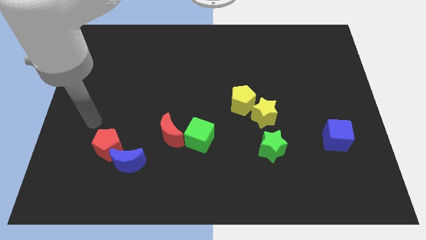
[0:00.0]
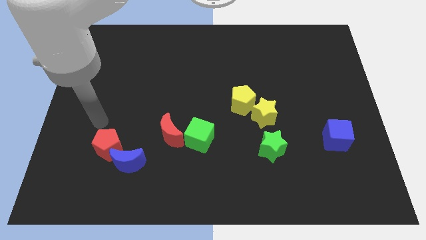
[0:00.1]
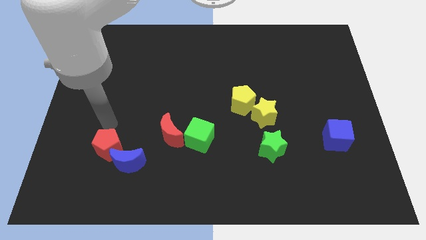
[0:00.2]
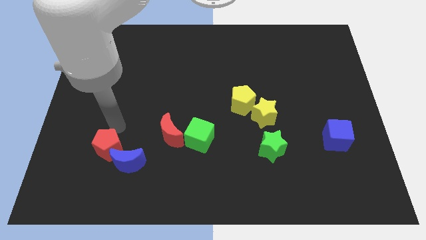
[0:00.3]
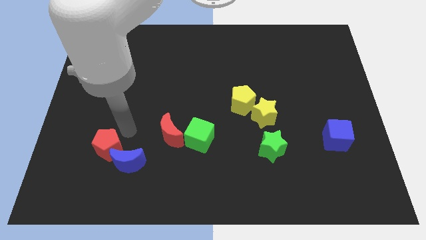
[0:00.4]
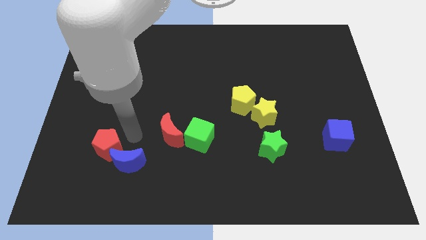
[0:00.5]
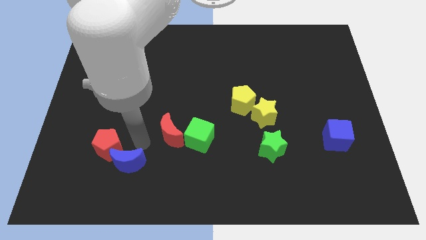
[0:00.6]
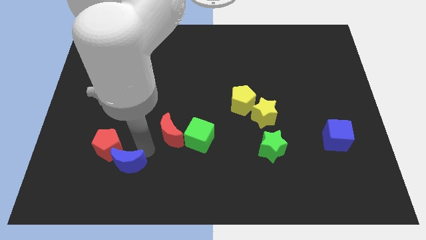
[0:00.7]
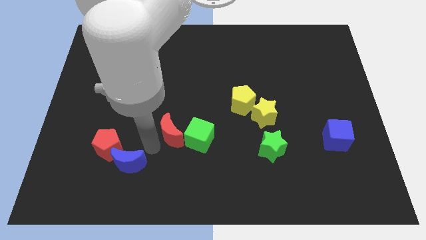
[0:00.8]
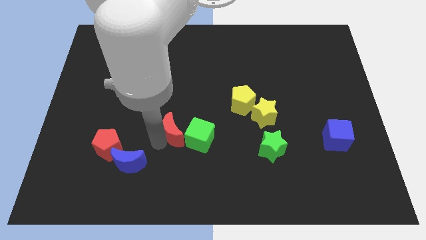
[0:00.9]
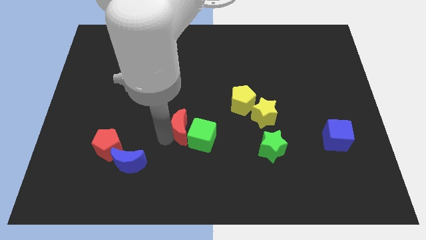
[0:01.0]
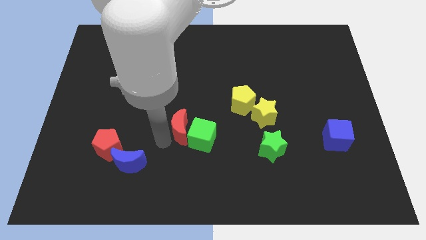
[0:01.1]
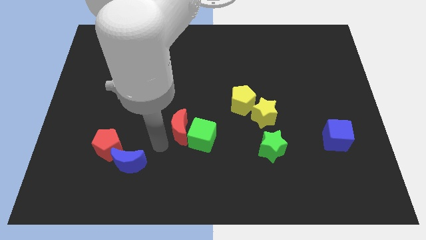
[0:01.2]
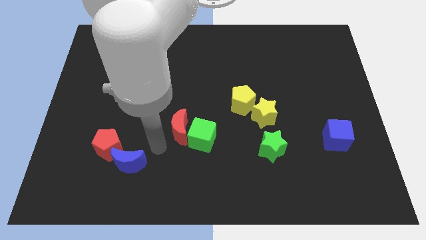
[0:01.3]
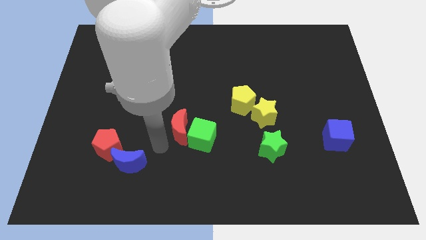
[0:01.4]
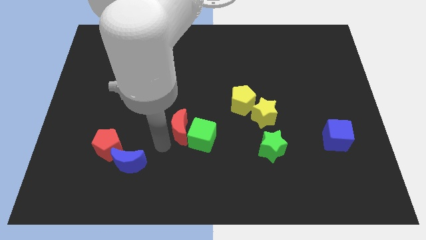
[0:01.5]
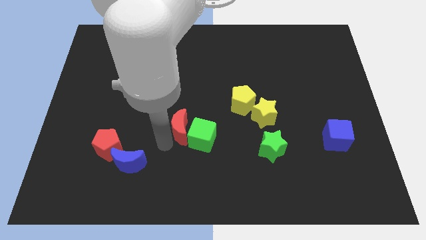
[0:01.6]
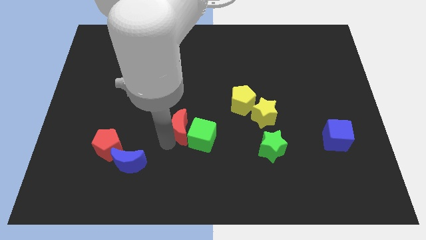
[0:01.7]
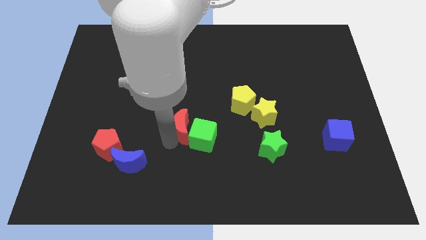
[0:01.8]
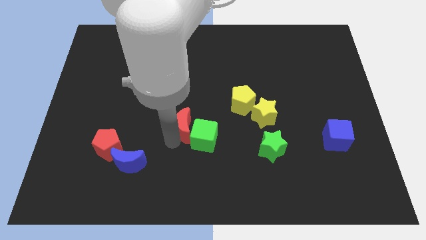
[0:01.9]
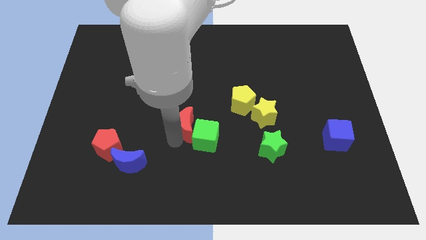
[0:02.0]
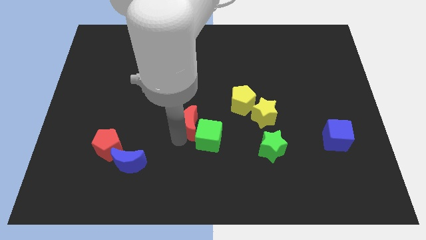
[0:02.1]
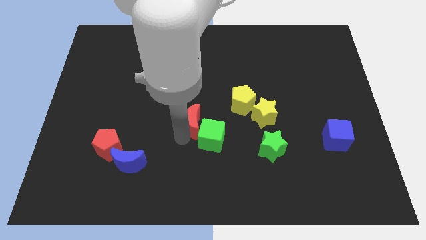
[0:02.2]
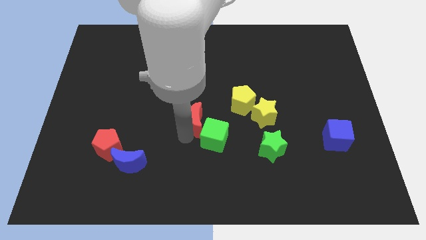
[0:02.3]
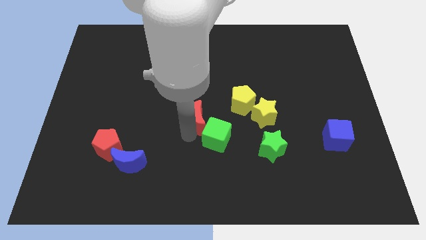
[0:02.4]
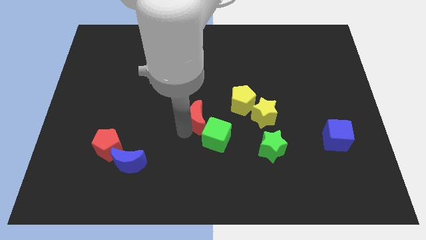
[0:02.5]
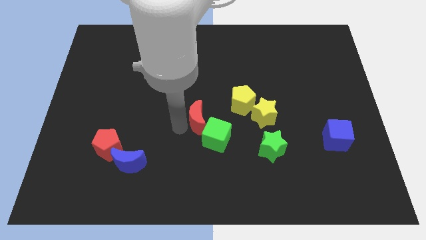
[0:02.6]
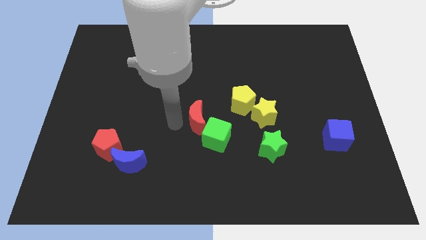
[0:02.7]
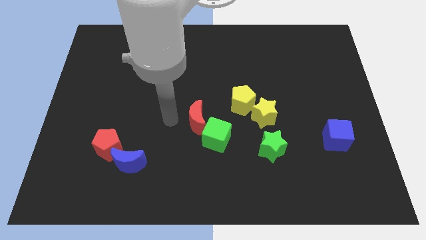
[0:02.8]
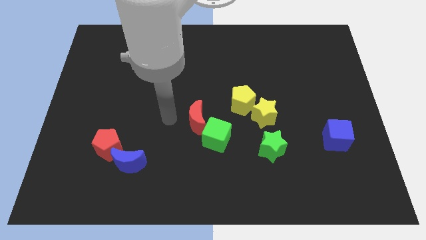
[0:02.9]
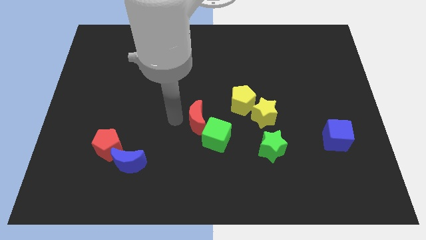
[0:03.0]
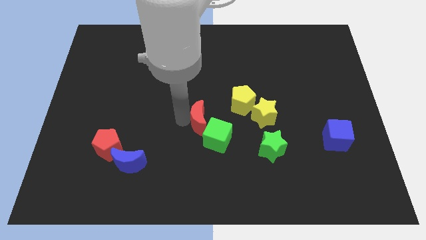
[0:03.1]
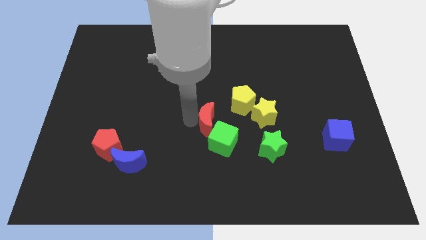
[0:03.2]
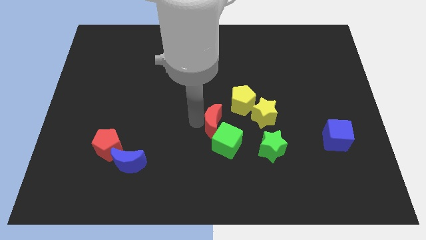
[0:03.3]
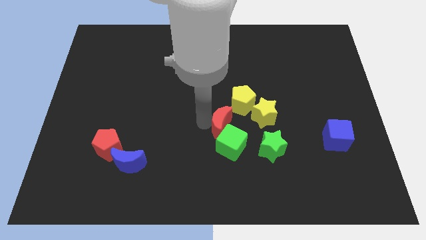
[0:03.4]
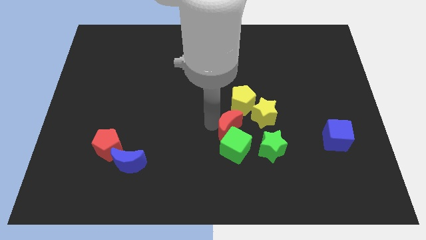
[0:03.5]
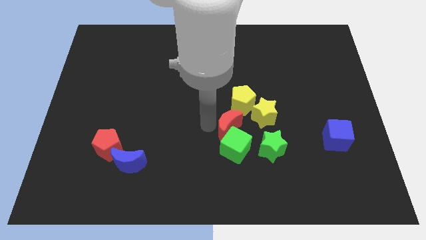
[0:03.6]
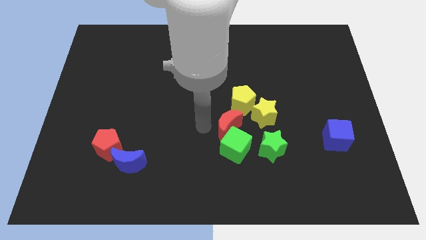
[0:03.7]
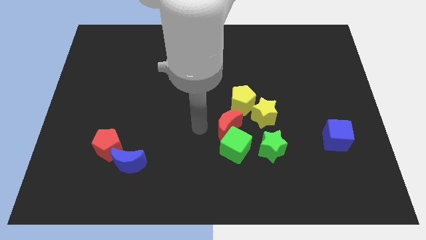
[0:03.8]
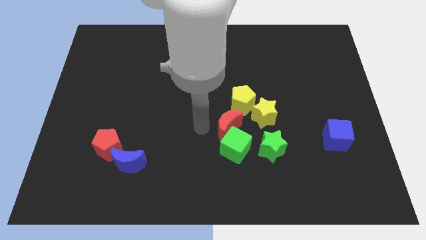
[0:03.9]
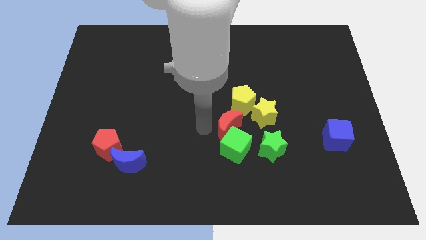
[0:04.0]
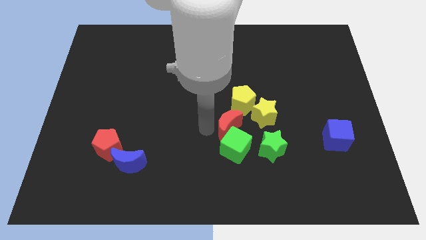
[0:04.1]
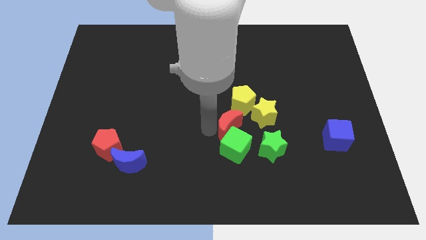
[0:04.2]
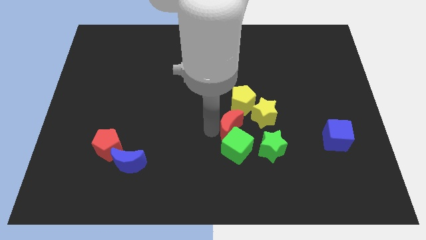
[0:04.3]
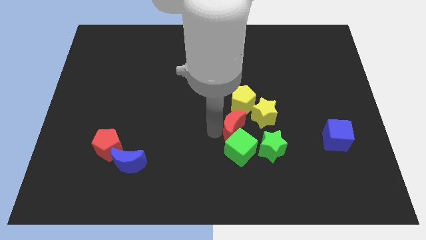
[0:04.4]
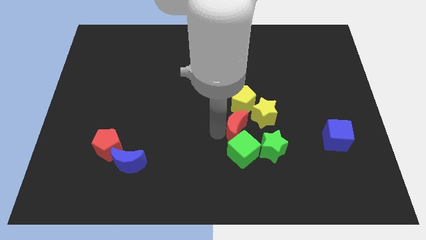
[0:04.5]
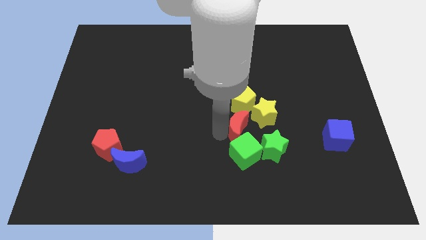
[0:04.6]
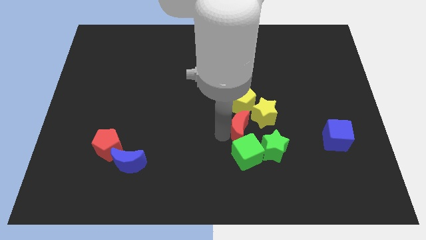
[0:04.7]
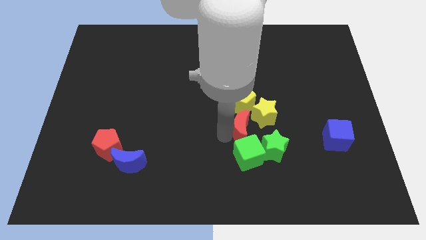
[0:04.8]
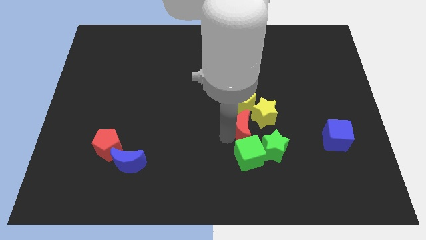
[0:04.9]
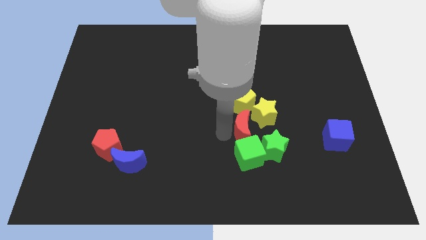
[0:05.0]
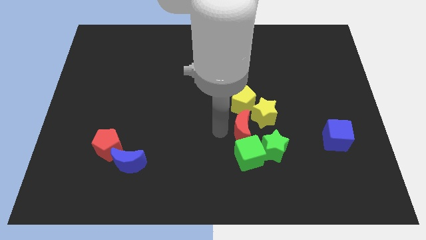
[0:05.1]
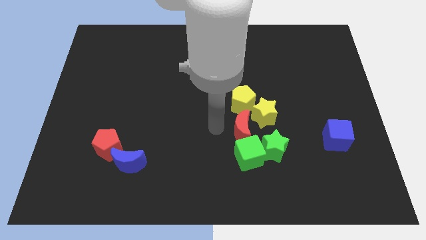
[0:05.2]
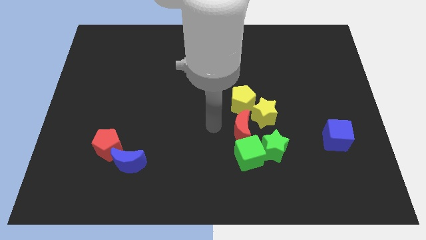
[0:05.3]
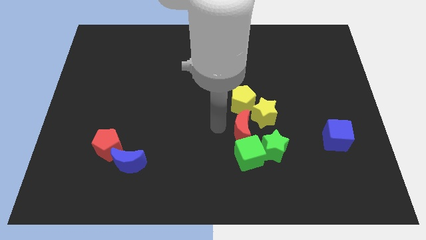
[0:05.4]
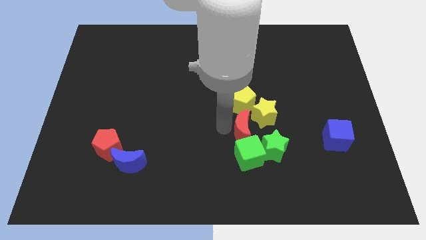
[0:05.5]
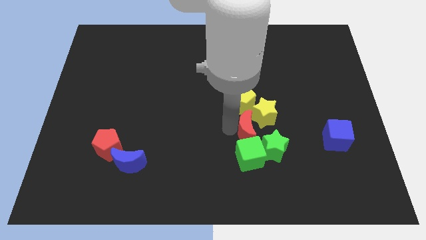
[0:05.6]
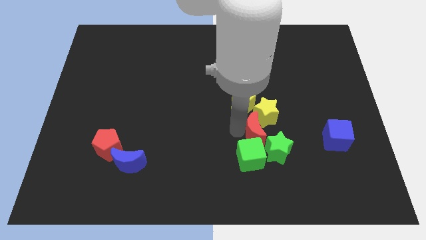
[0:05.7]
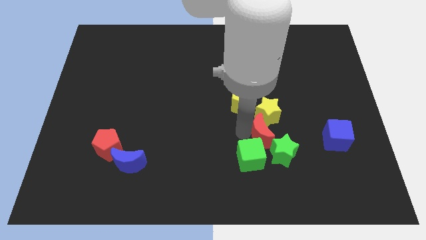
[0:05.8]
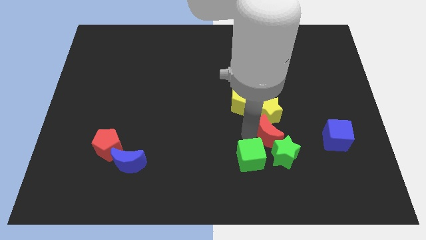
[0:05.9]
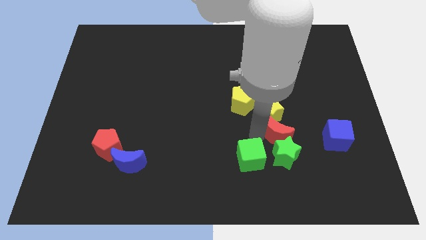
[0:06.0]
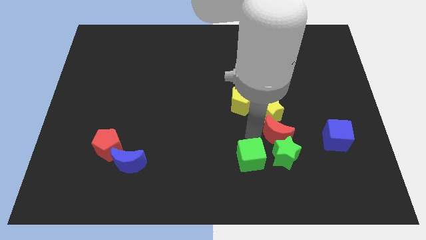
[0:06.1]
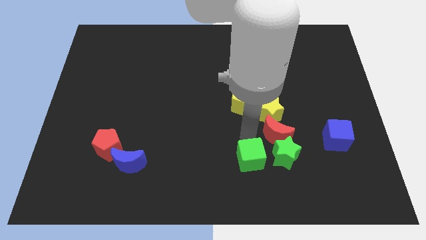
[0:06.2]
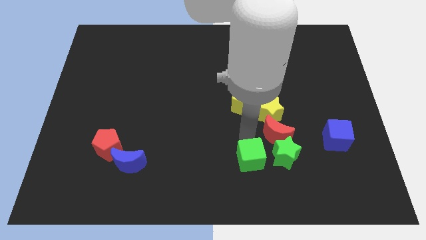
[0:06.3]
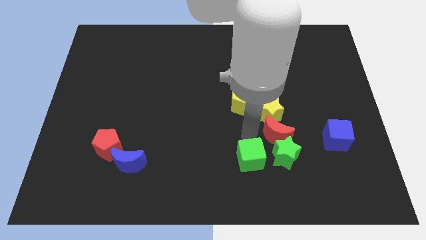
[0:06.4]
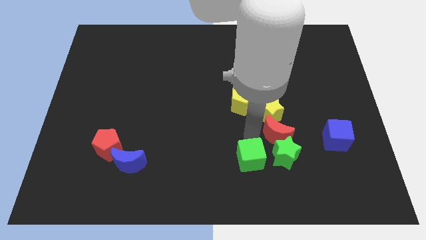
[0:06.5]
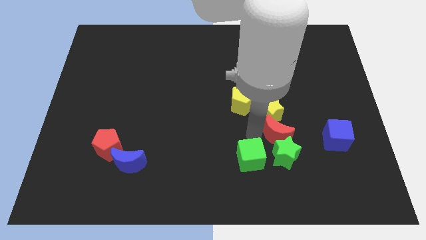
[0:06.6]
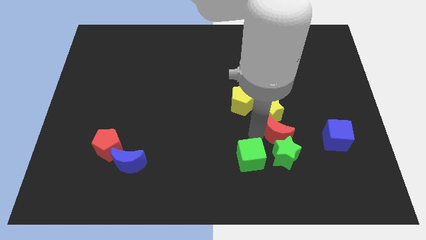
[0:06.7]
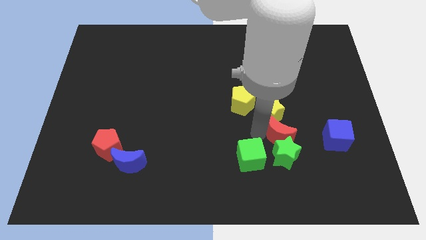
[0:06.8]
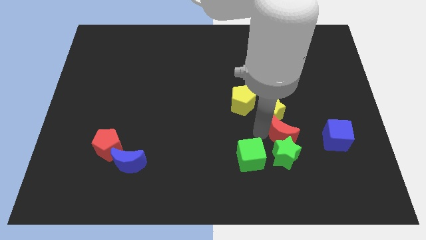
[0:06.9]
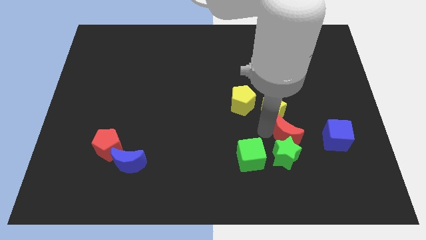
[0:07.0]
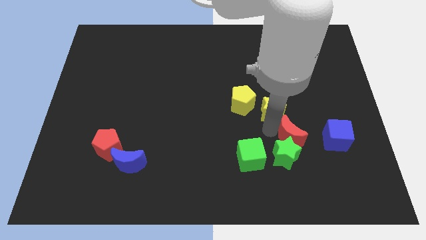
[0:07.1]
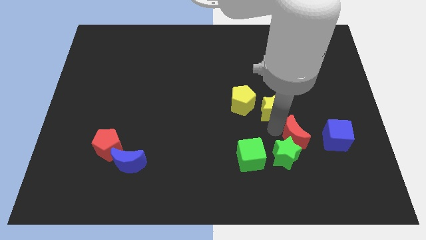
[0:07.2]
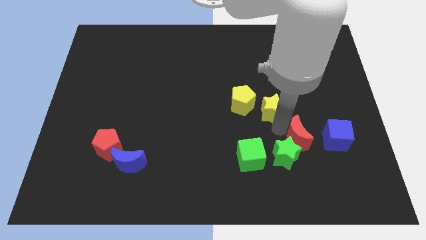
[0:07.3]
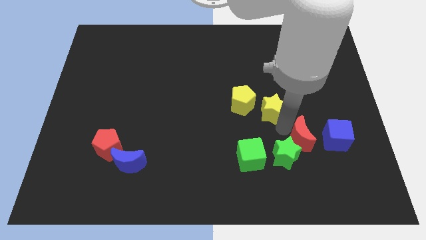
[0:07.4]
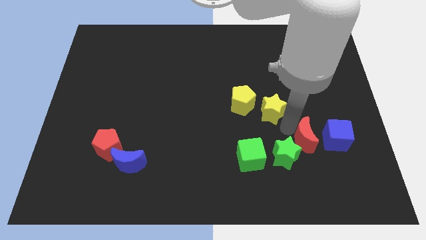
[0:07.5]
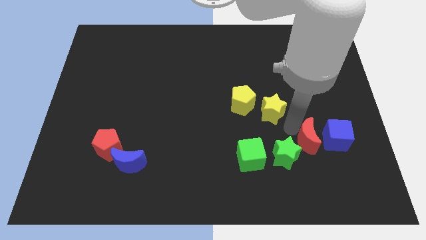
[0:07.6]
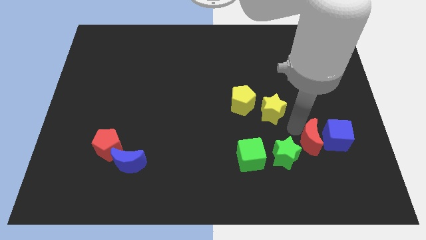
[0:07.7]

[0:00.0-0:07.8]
put the red moon to the blue cube
